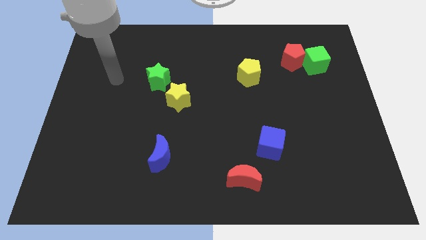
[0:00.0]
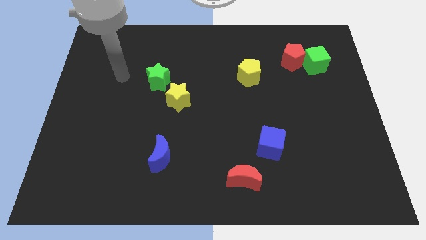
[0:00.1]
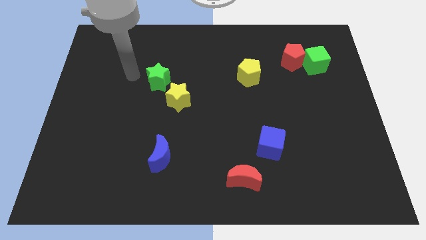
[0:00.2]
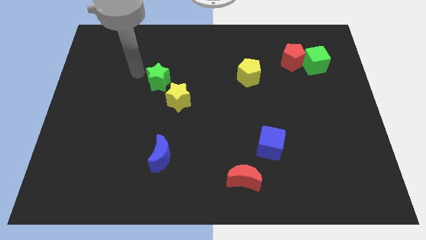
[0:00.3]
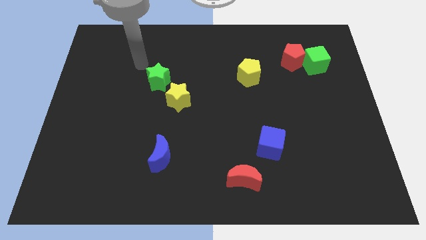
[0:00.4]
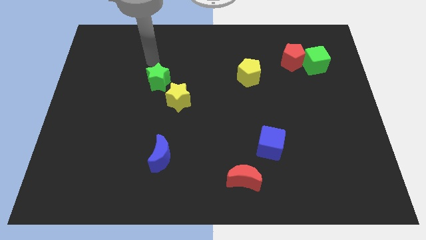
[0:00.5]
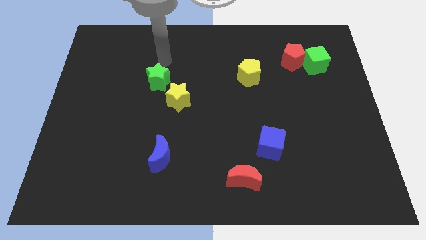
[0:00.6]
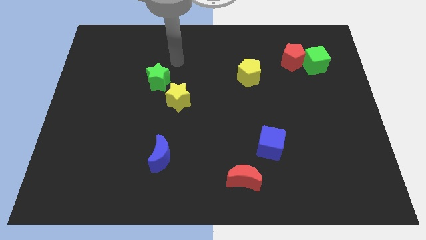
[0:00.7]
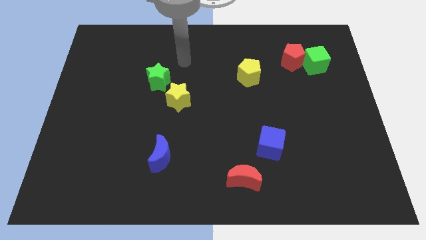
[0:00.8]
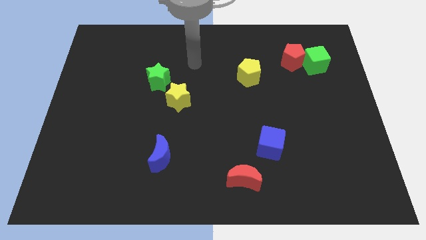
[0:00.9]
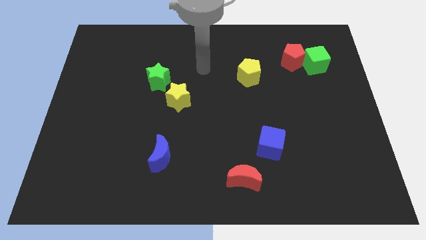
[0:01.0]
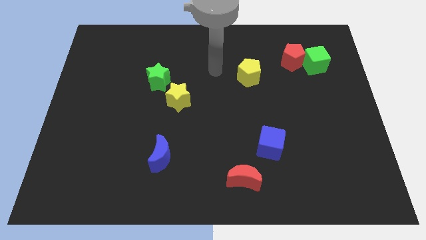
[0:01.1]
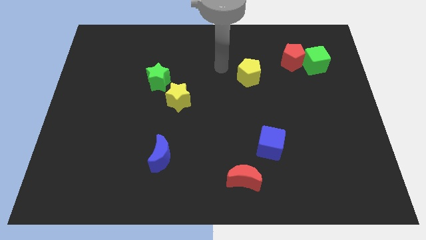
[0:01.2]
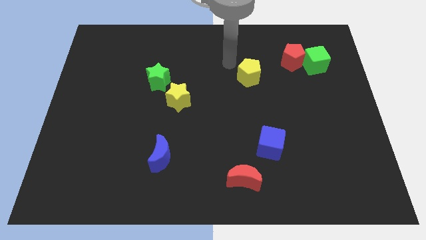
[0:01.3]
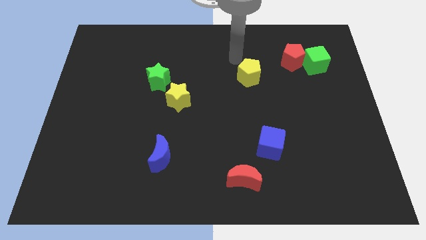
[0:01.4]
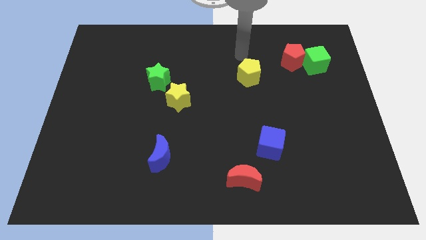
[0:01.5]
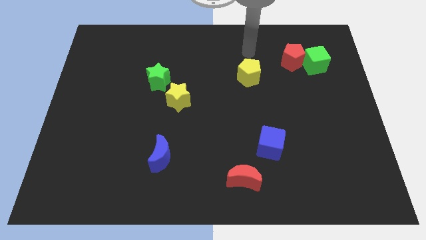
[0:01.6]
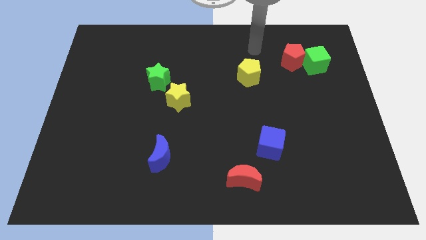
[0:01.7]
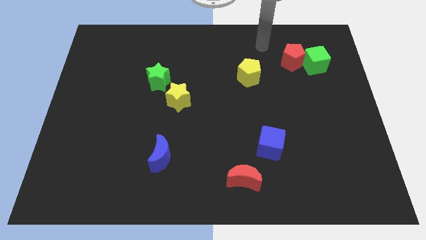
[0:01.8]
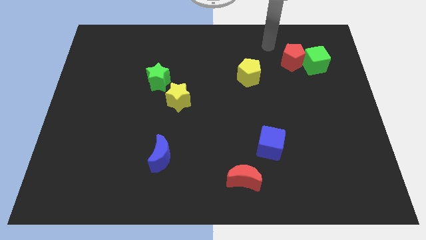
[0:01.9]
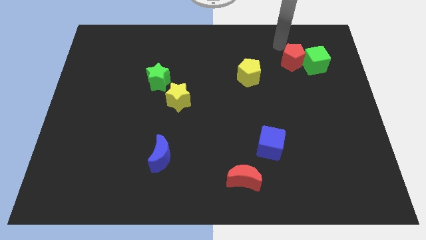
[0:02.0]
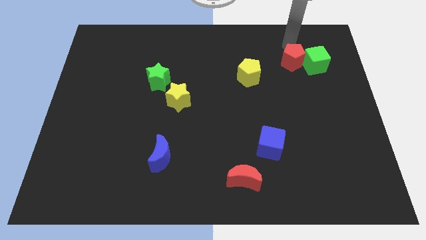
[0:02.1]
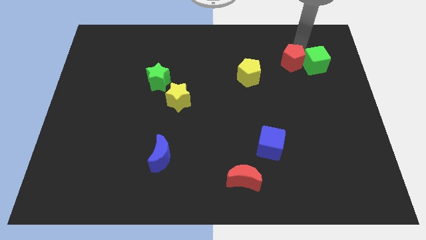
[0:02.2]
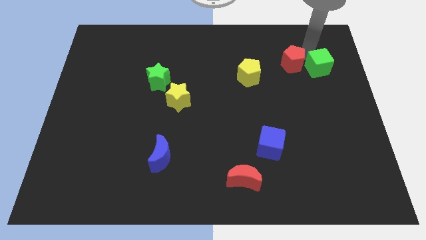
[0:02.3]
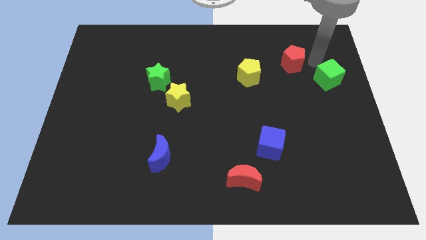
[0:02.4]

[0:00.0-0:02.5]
move the red pentagon away from the green cube

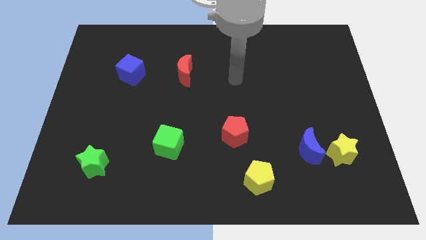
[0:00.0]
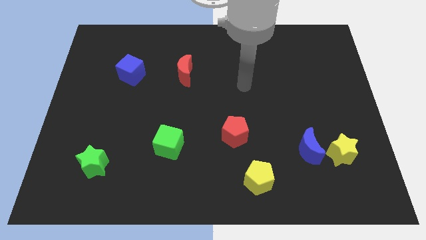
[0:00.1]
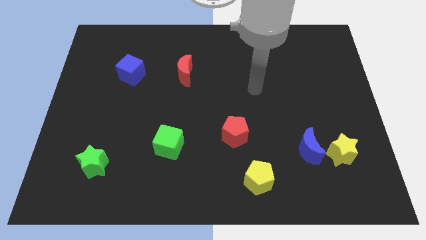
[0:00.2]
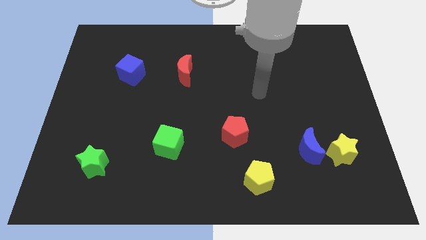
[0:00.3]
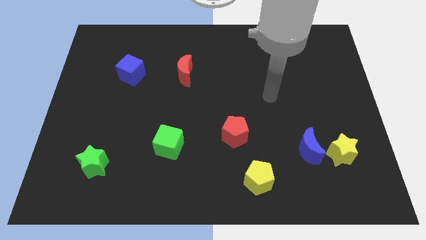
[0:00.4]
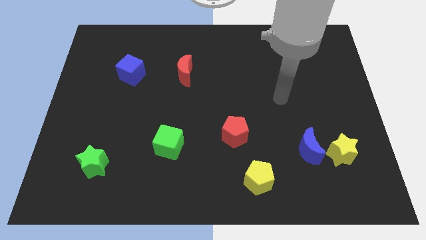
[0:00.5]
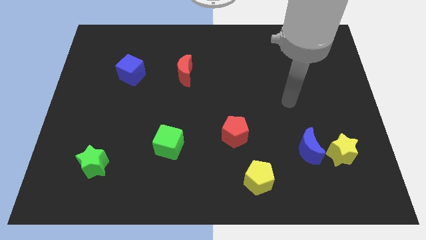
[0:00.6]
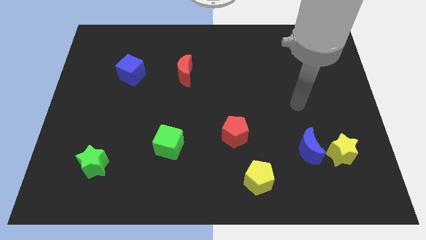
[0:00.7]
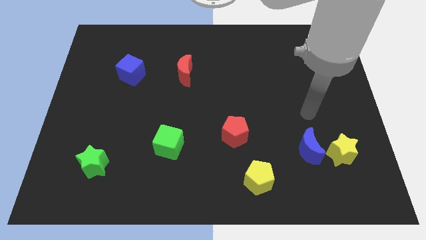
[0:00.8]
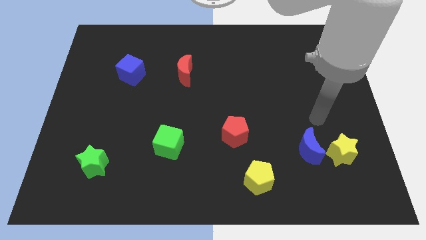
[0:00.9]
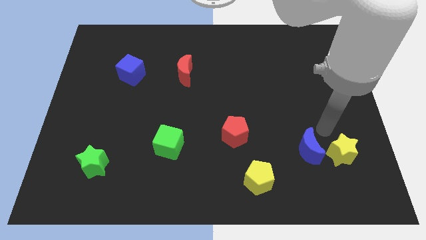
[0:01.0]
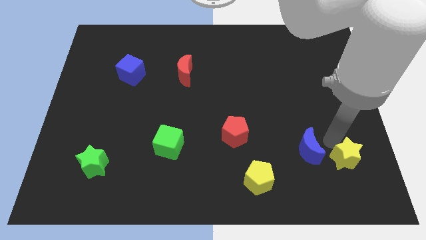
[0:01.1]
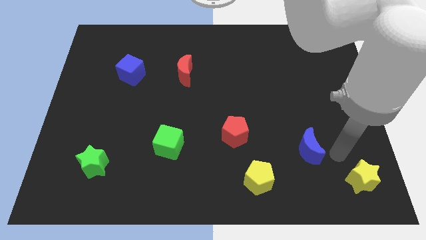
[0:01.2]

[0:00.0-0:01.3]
move the blue moon away from the yellow star

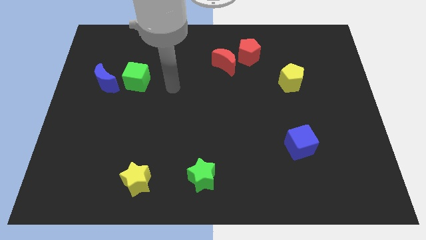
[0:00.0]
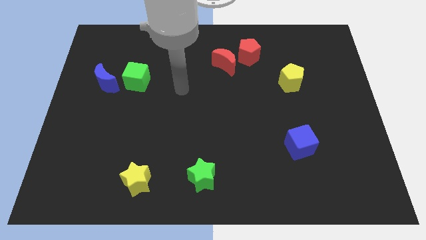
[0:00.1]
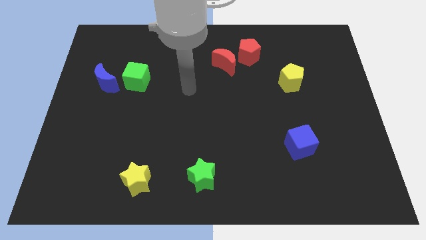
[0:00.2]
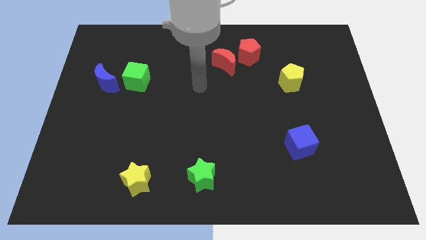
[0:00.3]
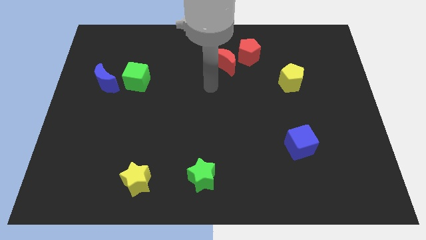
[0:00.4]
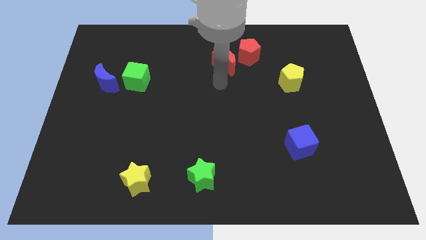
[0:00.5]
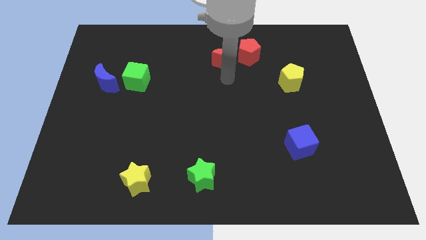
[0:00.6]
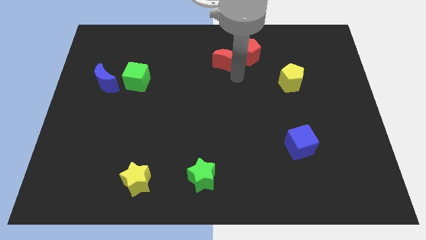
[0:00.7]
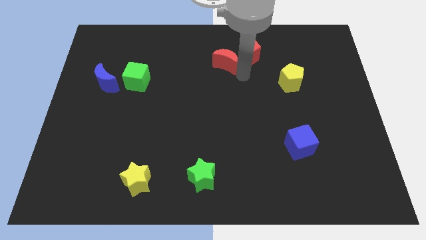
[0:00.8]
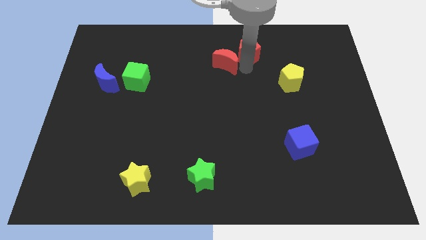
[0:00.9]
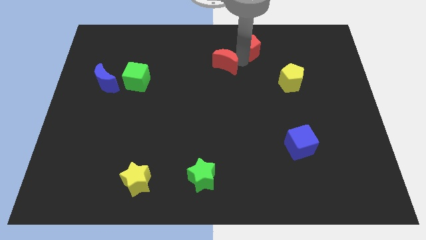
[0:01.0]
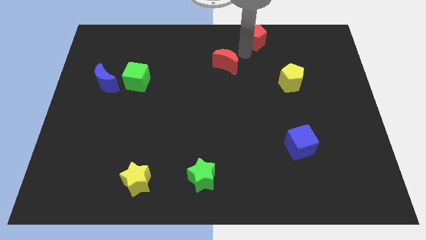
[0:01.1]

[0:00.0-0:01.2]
separate the red moon from the red pentagon

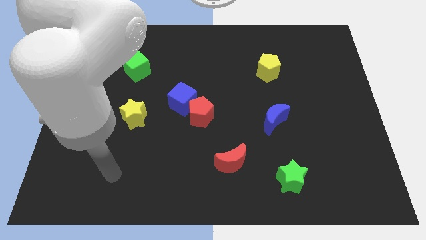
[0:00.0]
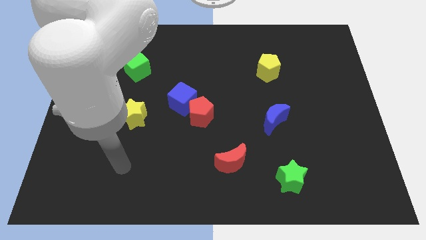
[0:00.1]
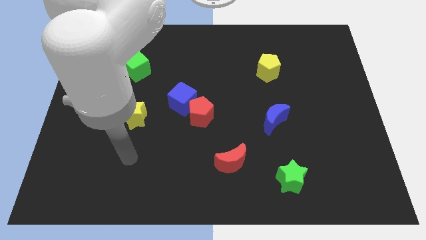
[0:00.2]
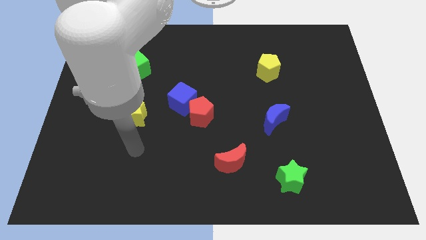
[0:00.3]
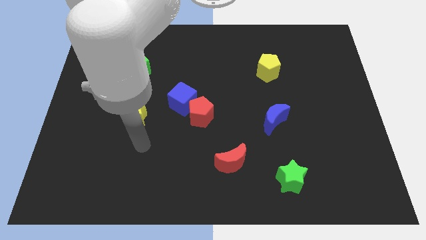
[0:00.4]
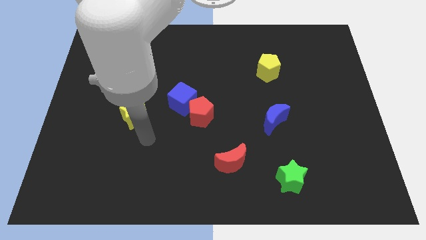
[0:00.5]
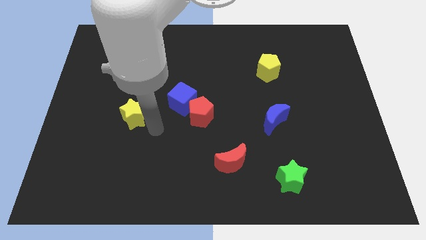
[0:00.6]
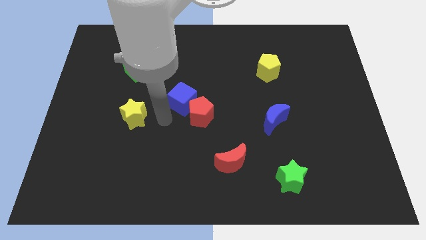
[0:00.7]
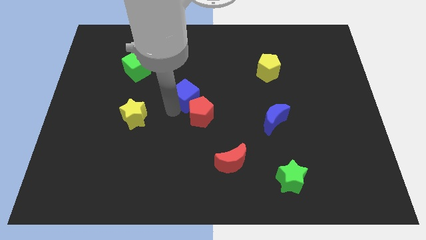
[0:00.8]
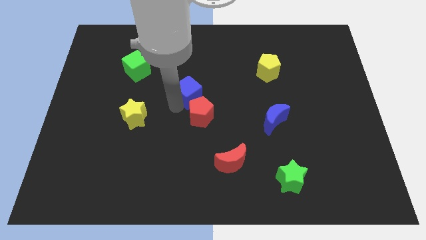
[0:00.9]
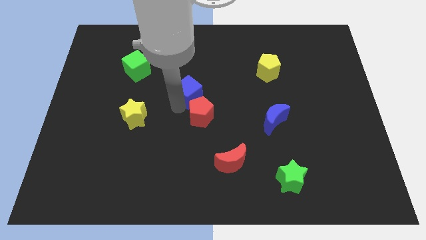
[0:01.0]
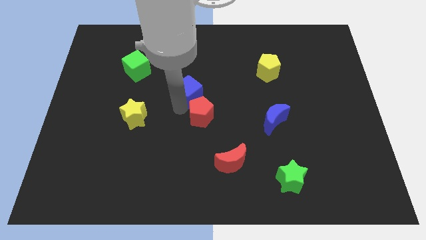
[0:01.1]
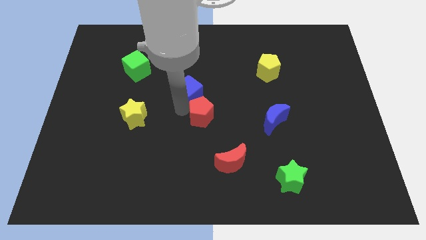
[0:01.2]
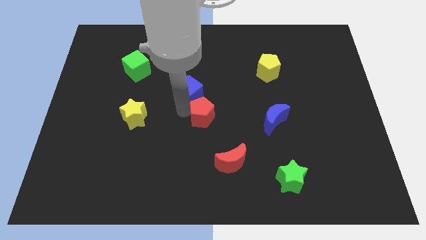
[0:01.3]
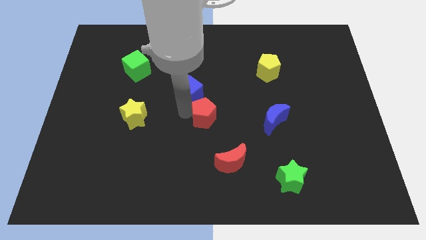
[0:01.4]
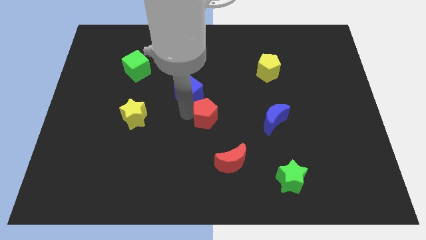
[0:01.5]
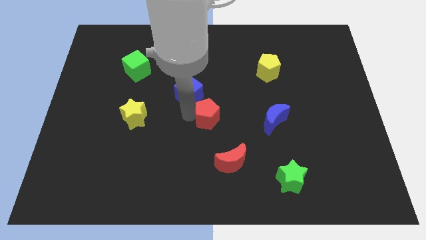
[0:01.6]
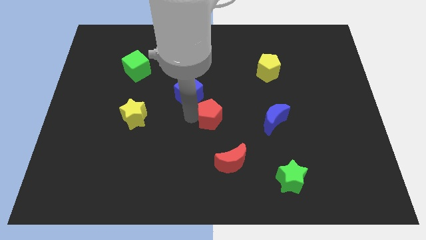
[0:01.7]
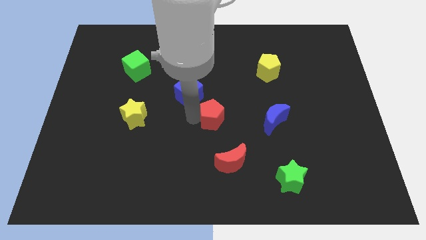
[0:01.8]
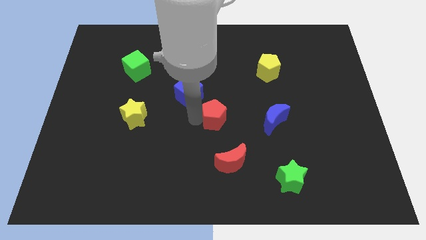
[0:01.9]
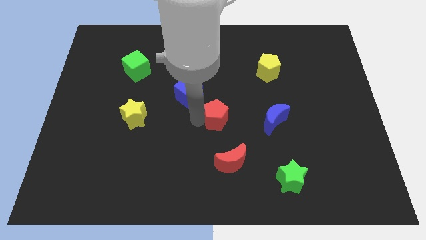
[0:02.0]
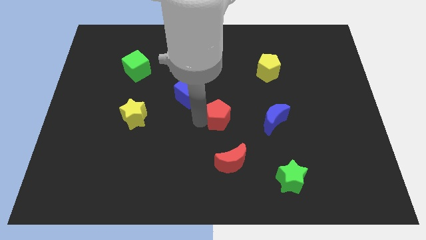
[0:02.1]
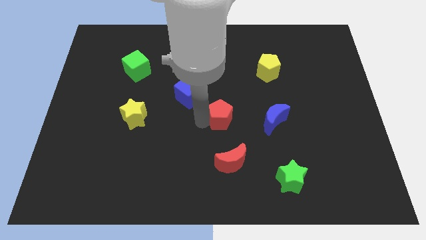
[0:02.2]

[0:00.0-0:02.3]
separate the red pentagon from the blue cube

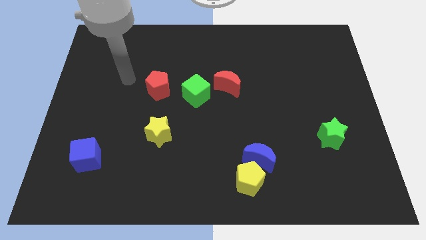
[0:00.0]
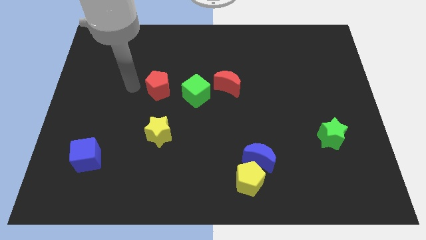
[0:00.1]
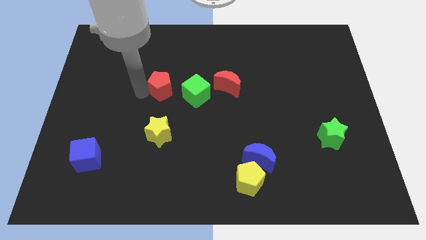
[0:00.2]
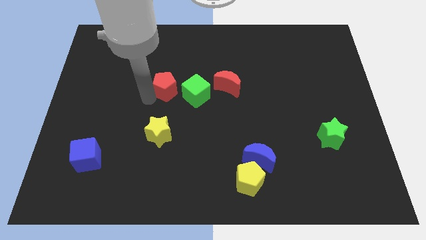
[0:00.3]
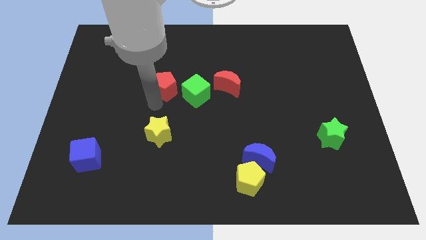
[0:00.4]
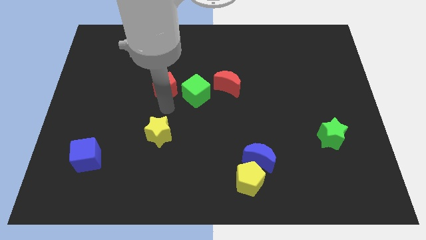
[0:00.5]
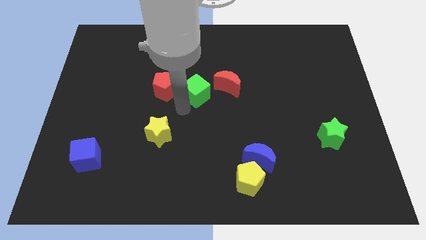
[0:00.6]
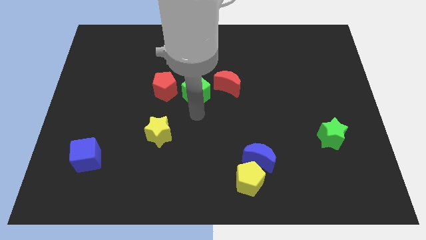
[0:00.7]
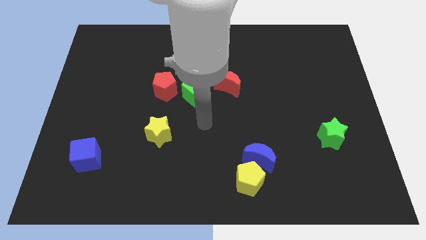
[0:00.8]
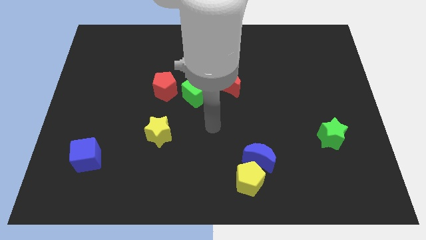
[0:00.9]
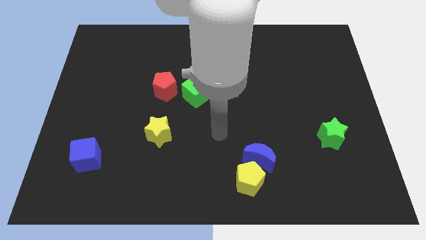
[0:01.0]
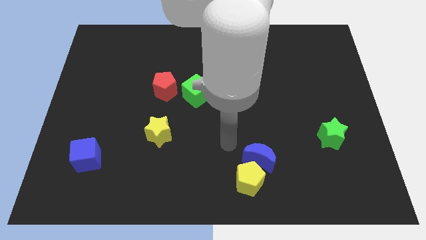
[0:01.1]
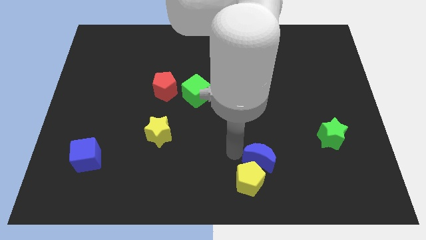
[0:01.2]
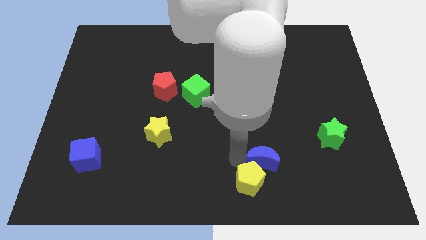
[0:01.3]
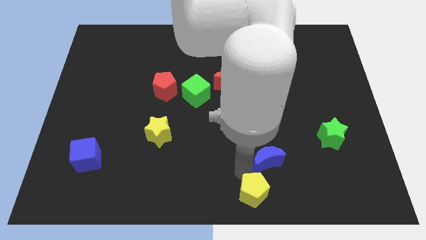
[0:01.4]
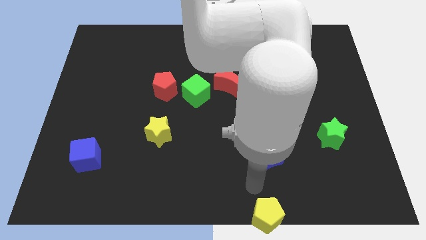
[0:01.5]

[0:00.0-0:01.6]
move the blue moon away from the yellow pentagon

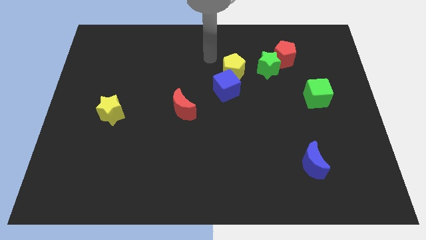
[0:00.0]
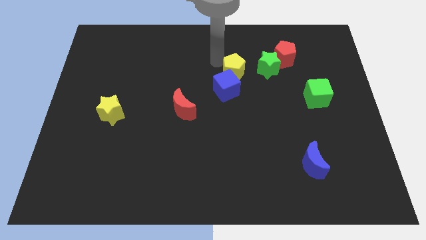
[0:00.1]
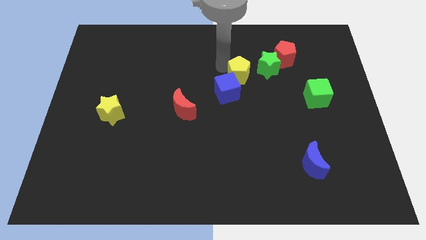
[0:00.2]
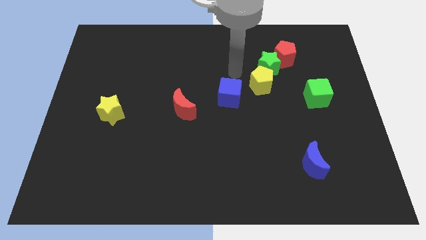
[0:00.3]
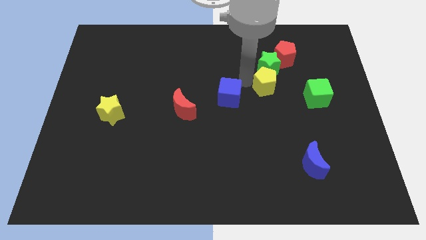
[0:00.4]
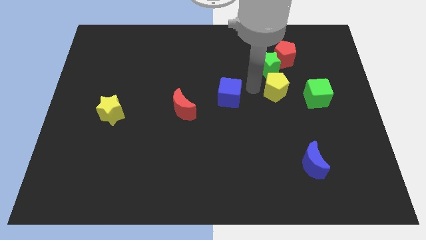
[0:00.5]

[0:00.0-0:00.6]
separate the blue cube from the yellow pentagon
